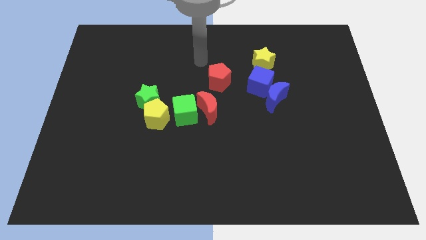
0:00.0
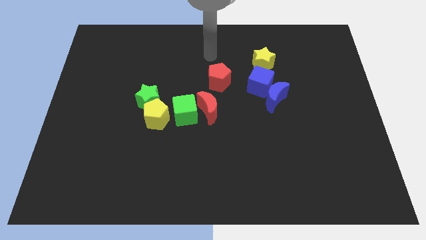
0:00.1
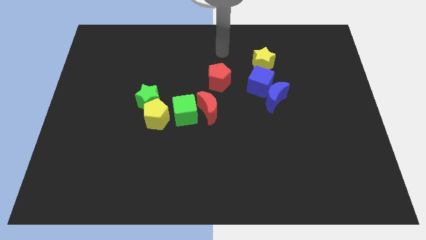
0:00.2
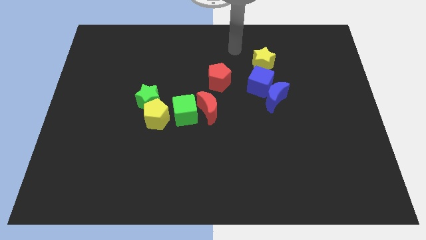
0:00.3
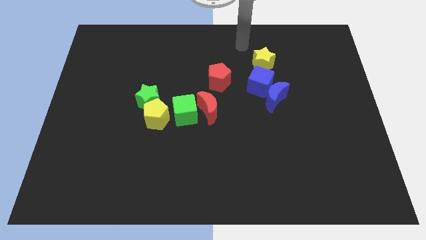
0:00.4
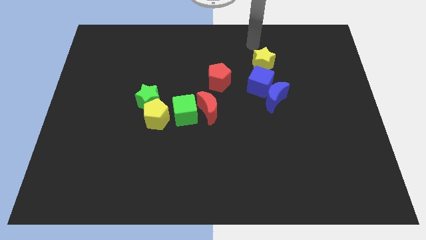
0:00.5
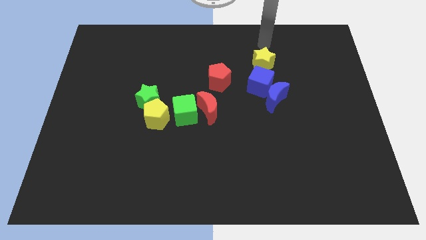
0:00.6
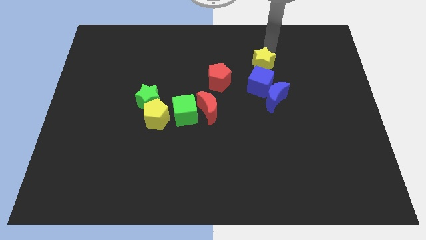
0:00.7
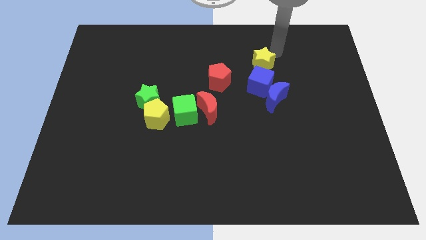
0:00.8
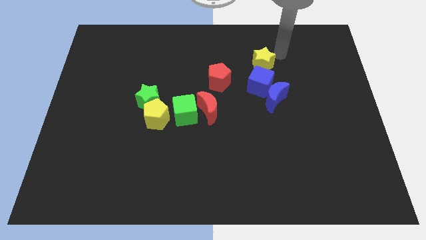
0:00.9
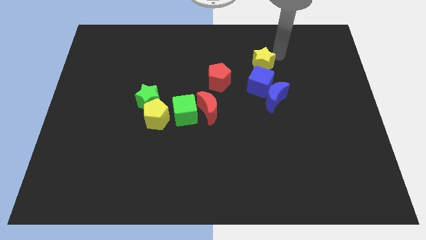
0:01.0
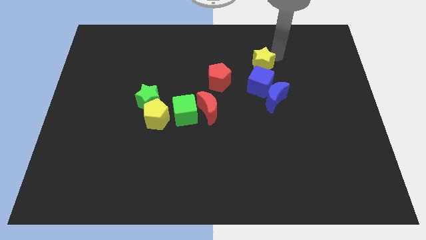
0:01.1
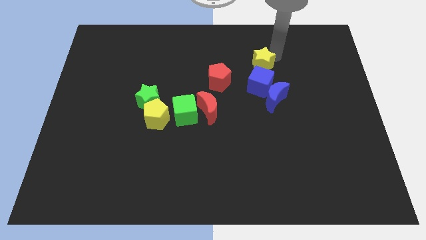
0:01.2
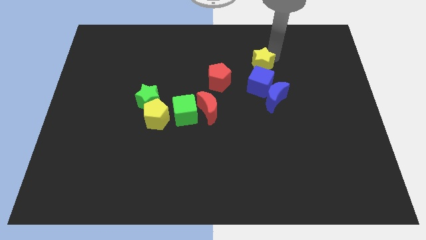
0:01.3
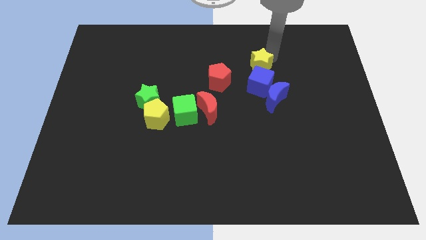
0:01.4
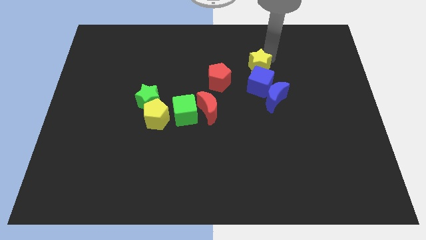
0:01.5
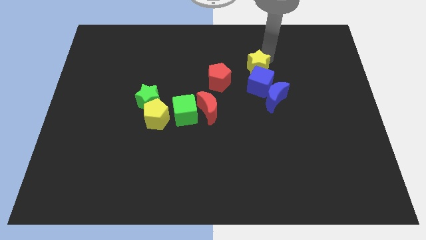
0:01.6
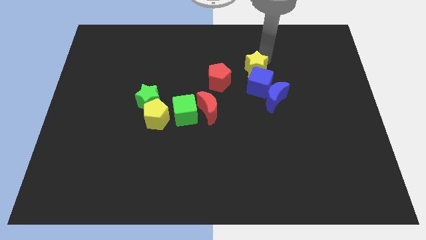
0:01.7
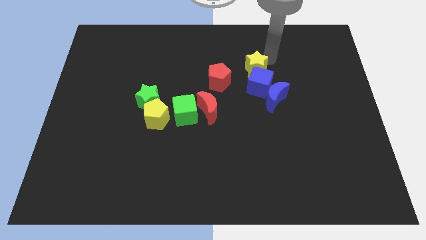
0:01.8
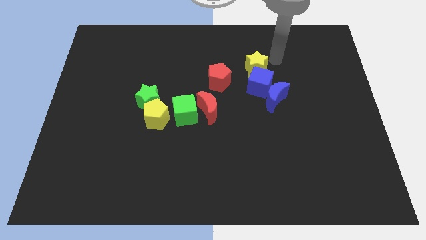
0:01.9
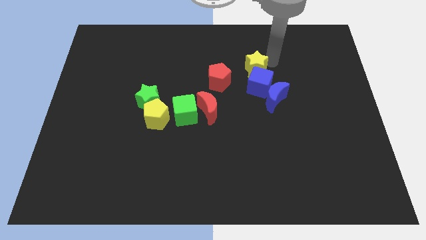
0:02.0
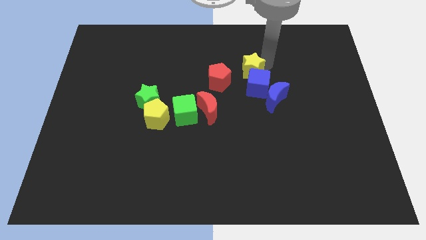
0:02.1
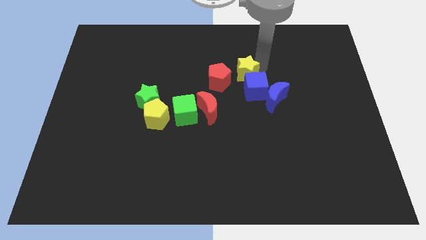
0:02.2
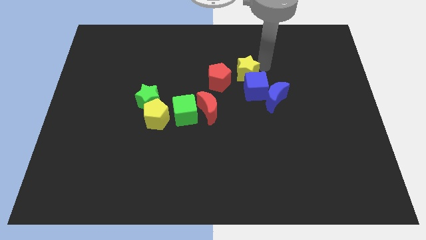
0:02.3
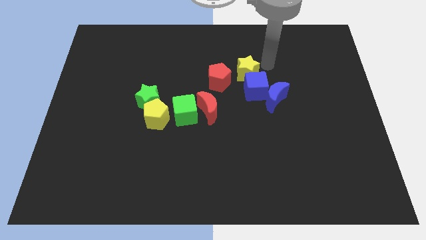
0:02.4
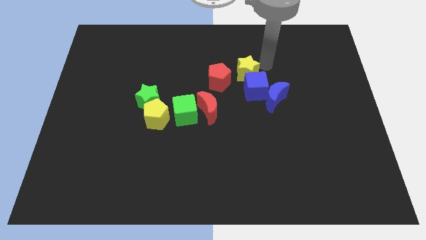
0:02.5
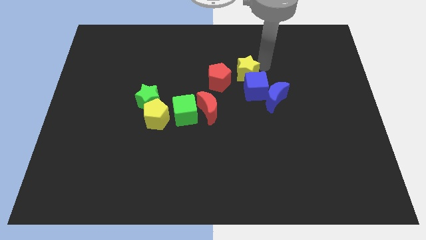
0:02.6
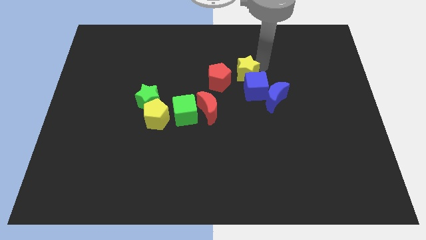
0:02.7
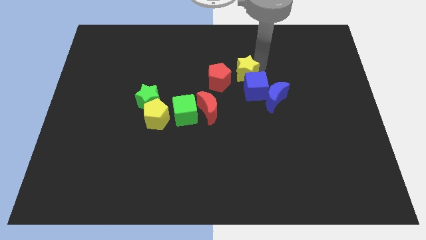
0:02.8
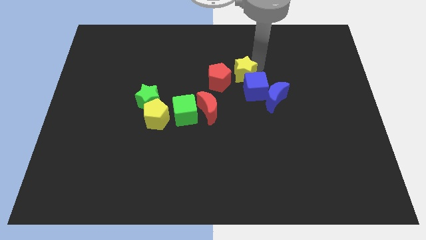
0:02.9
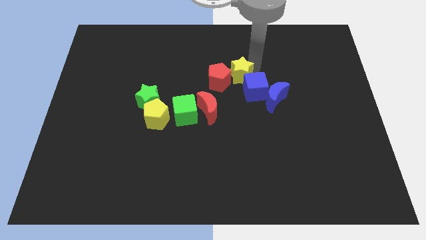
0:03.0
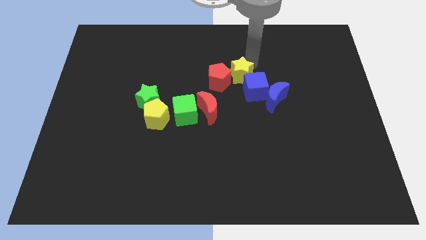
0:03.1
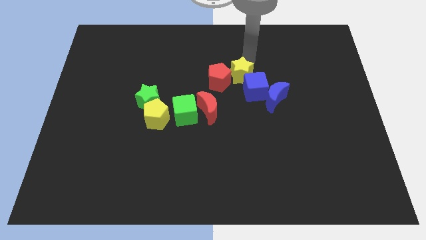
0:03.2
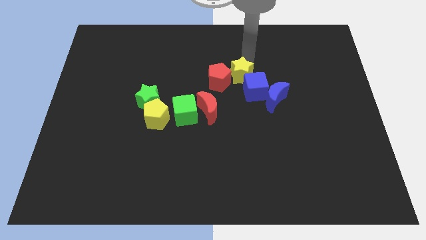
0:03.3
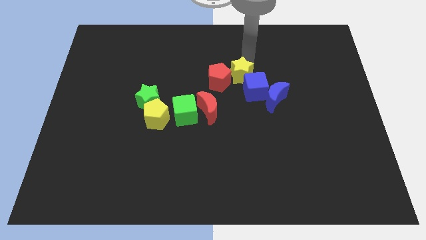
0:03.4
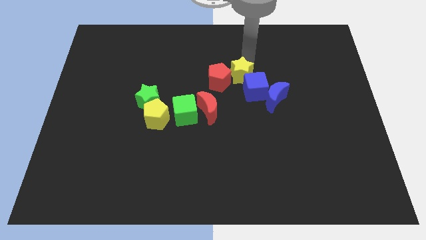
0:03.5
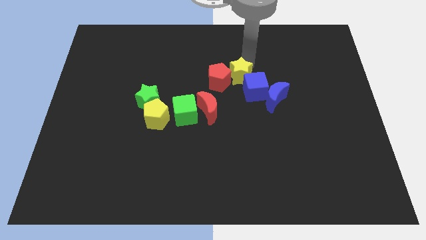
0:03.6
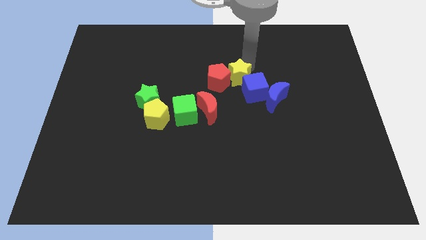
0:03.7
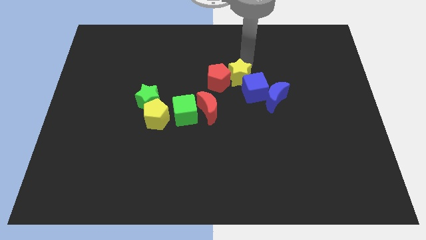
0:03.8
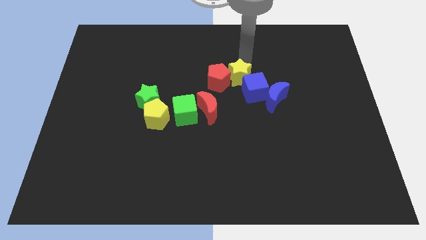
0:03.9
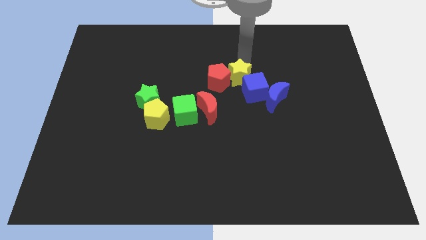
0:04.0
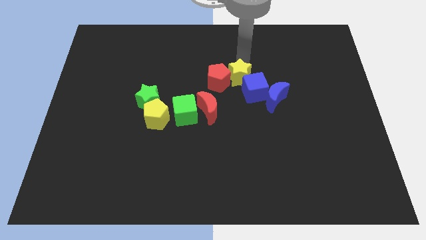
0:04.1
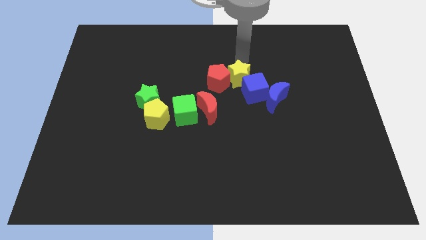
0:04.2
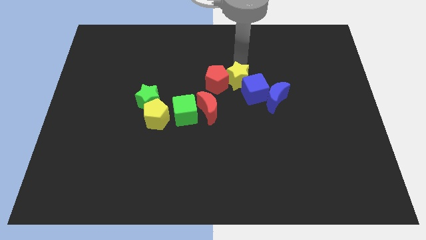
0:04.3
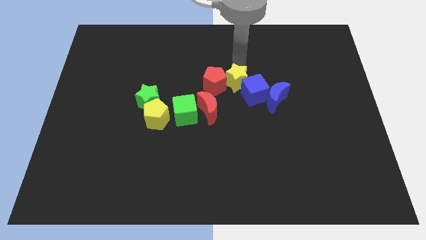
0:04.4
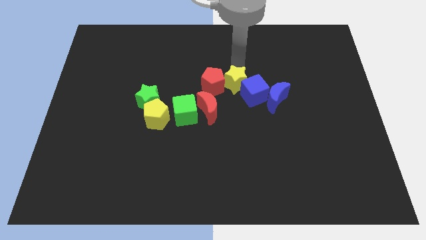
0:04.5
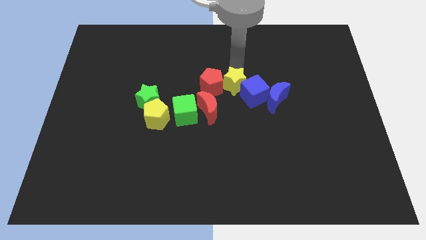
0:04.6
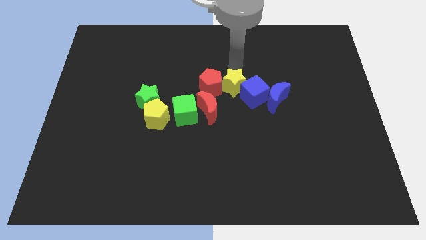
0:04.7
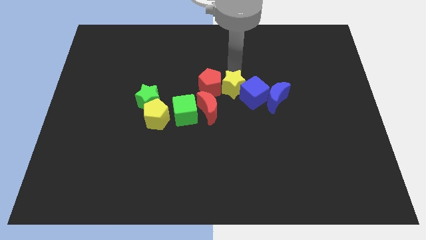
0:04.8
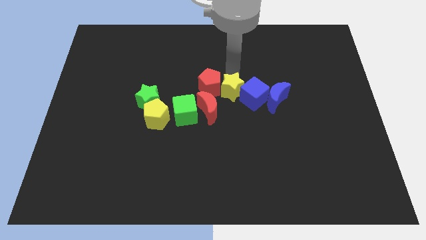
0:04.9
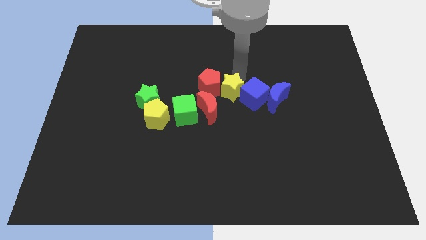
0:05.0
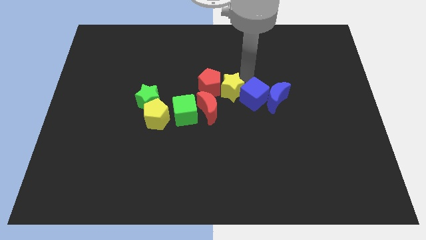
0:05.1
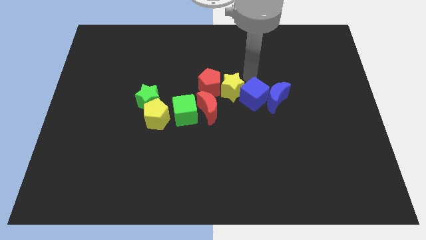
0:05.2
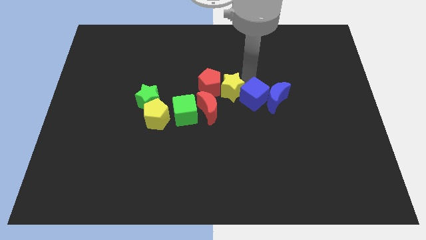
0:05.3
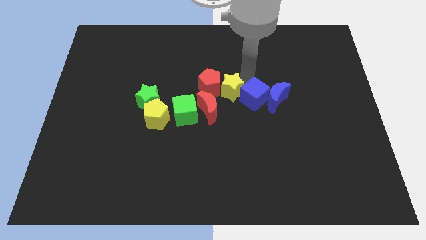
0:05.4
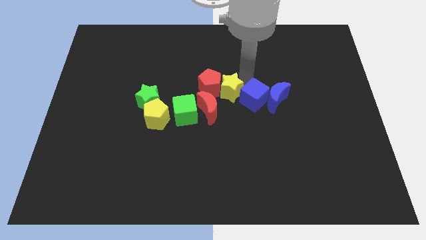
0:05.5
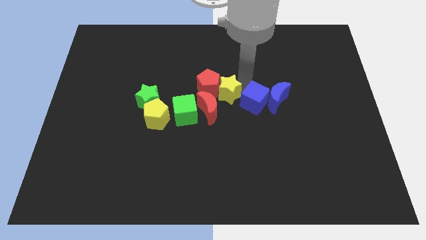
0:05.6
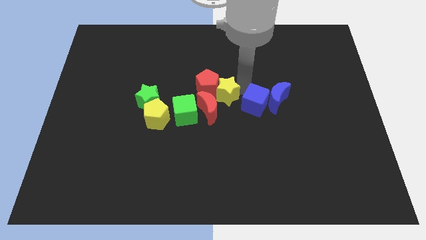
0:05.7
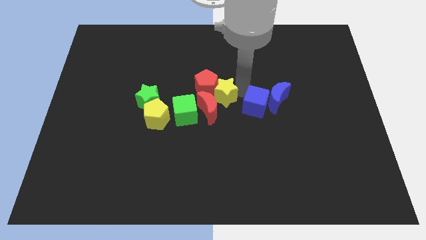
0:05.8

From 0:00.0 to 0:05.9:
slide the yellow star to the red moon

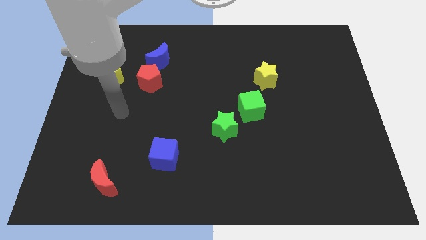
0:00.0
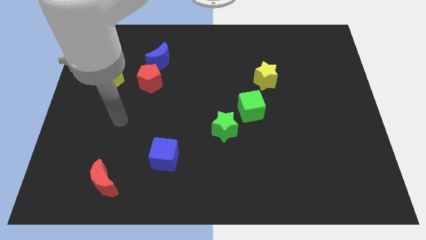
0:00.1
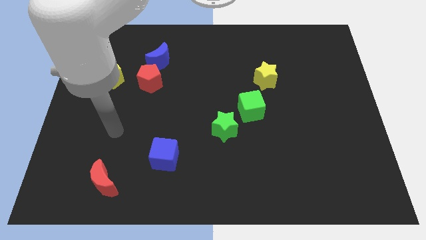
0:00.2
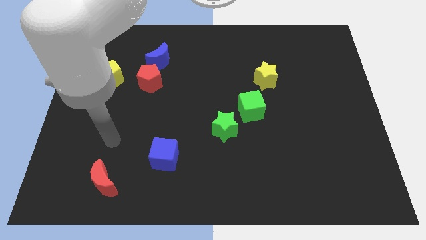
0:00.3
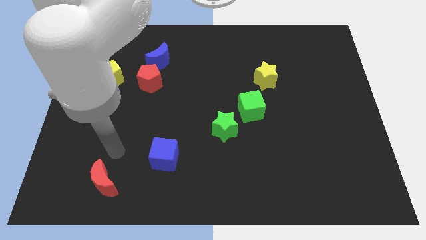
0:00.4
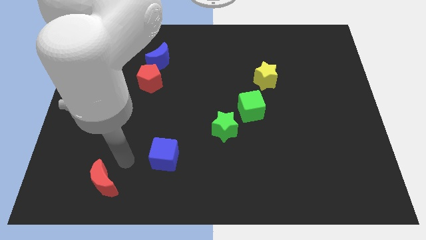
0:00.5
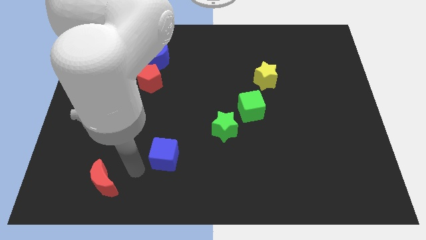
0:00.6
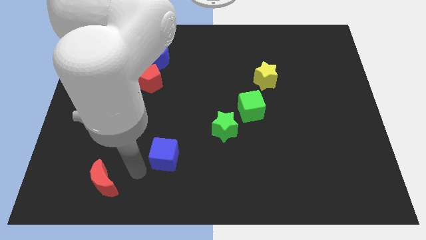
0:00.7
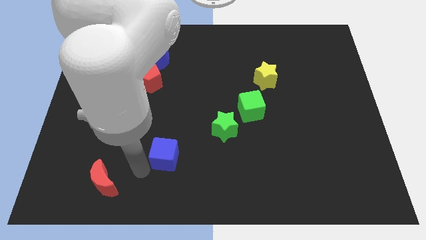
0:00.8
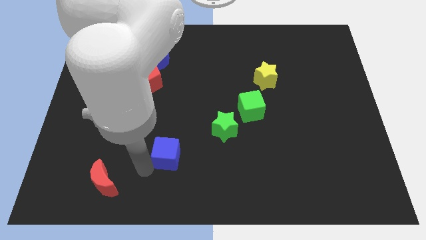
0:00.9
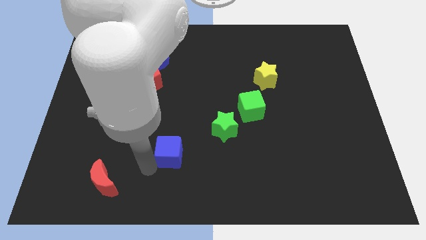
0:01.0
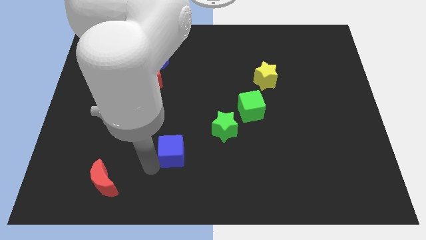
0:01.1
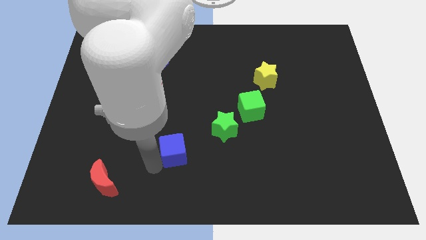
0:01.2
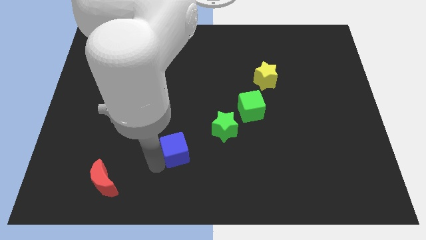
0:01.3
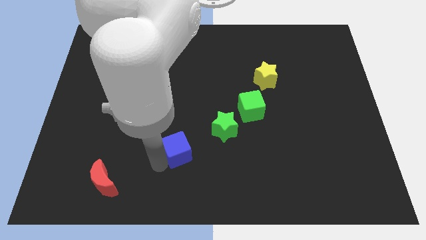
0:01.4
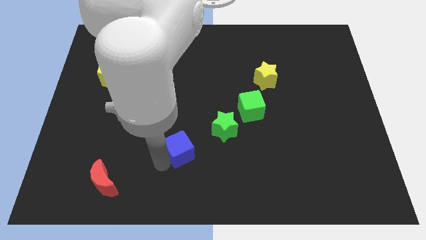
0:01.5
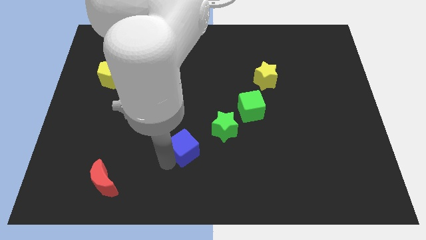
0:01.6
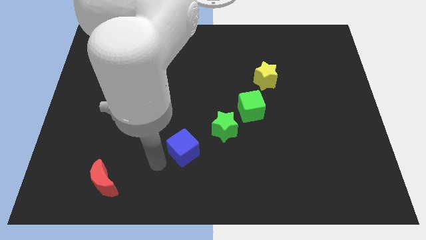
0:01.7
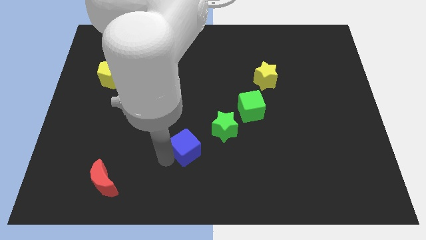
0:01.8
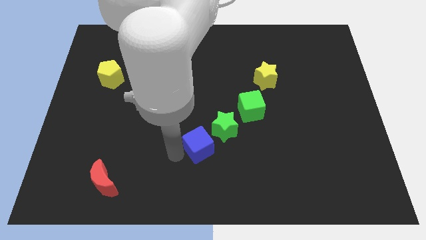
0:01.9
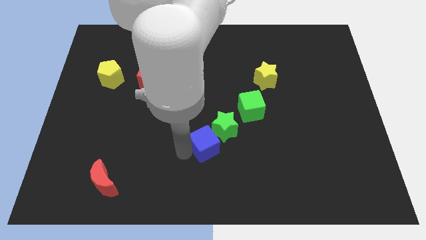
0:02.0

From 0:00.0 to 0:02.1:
slide the blue cube towards the green star
